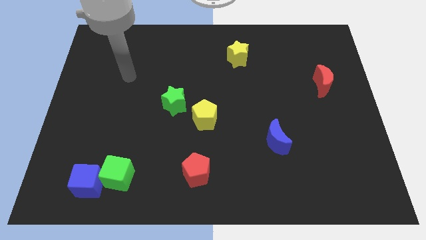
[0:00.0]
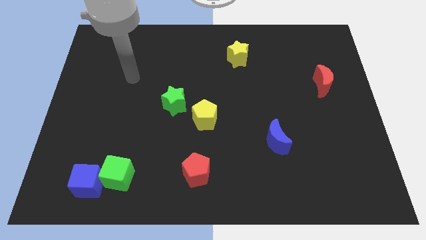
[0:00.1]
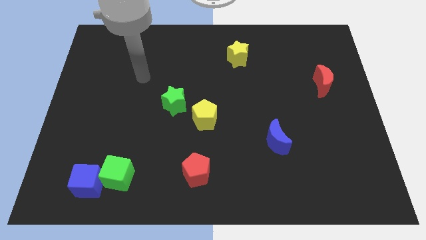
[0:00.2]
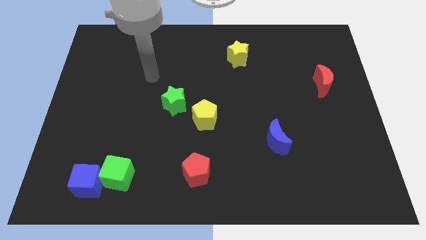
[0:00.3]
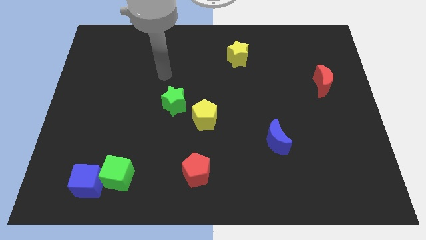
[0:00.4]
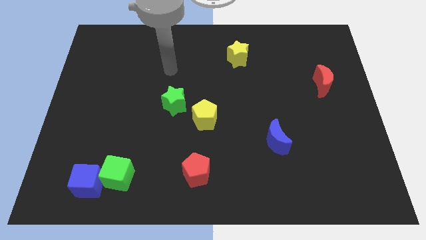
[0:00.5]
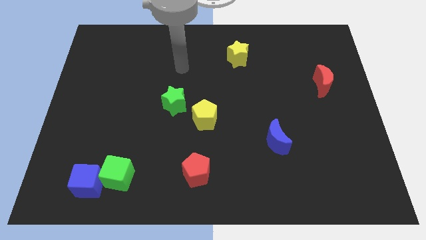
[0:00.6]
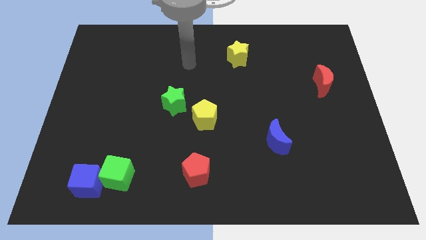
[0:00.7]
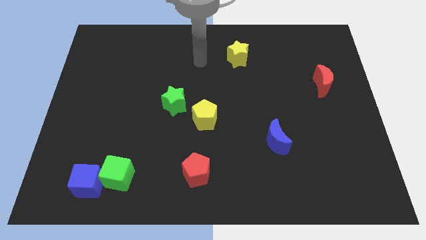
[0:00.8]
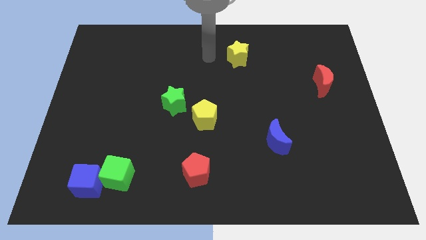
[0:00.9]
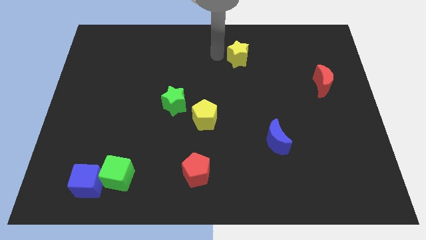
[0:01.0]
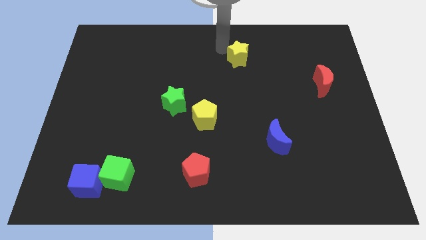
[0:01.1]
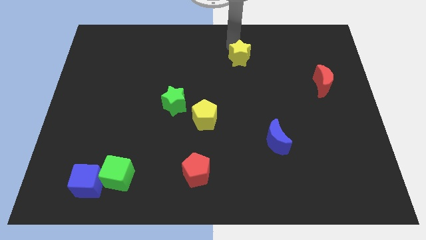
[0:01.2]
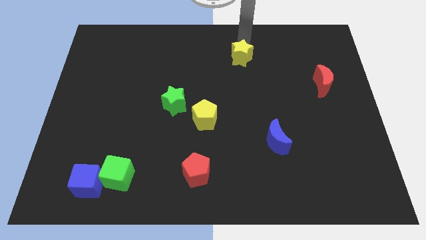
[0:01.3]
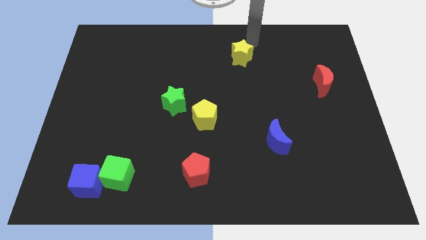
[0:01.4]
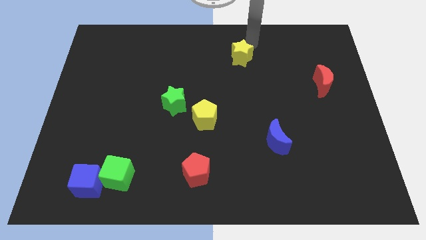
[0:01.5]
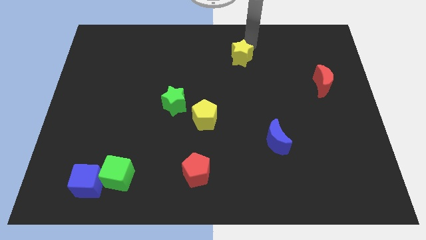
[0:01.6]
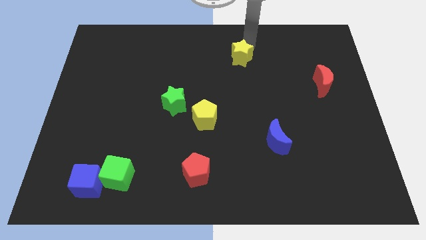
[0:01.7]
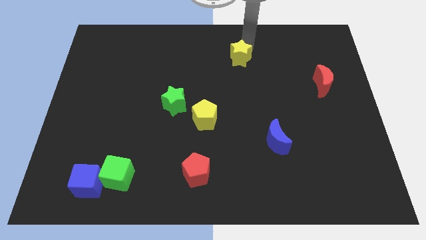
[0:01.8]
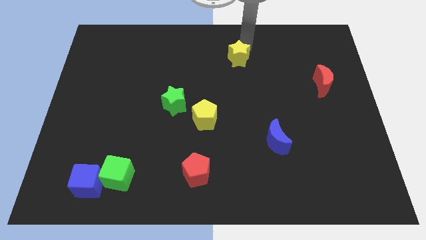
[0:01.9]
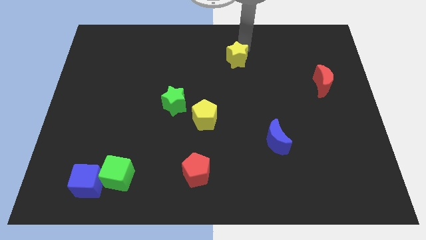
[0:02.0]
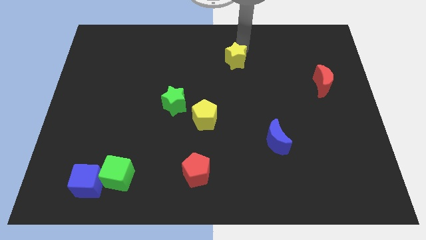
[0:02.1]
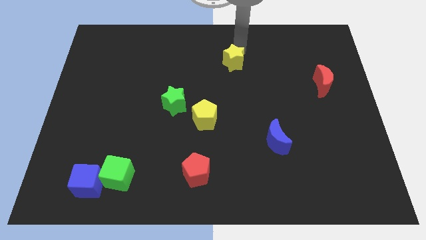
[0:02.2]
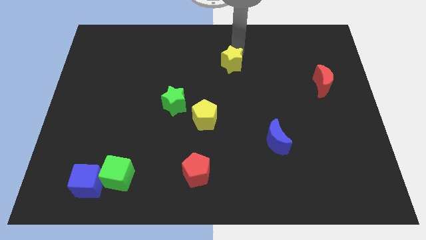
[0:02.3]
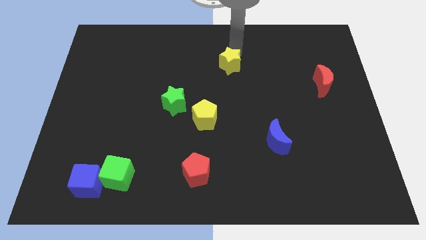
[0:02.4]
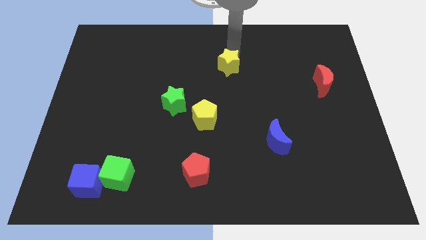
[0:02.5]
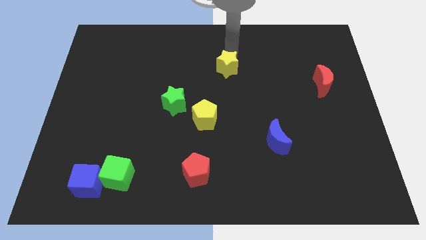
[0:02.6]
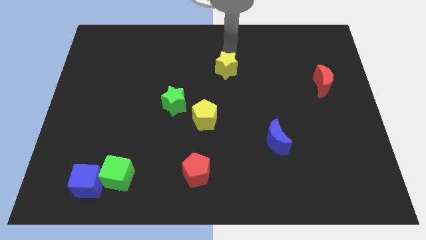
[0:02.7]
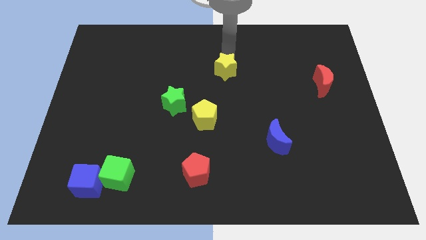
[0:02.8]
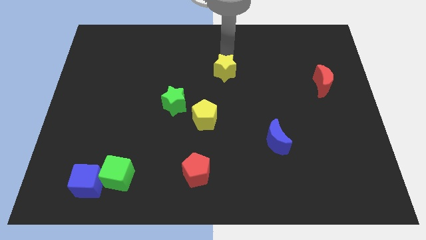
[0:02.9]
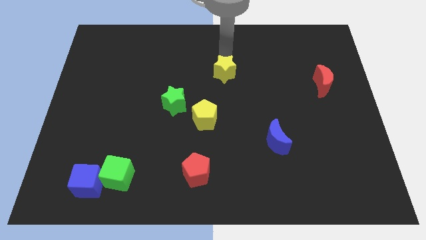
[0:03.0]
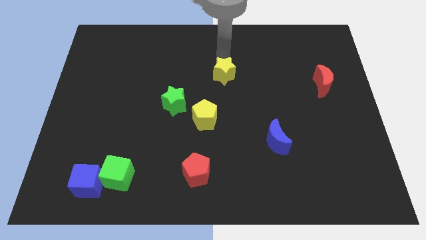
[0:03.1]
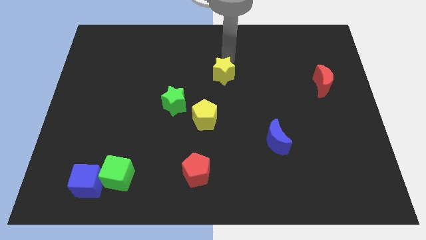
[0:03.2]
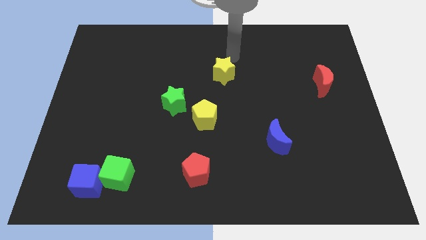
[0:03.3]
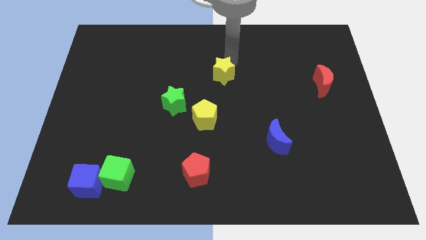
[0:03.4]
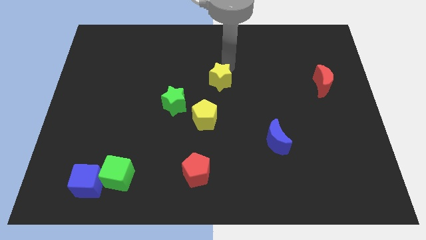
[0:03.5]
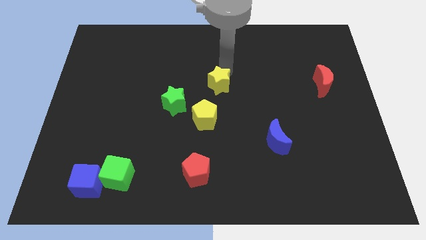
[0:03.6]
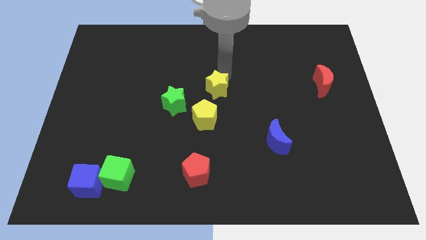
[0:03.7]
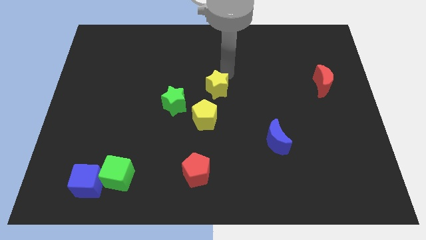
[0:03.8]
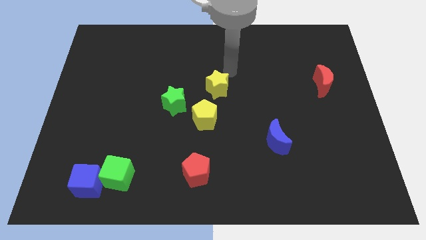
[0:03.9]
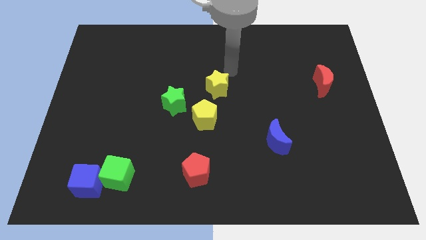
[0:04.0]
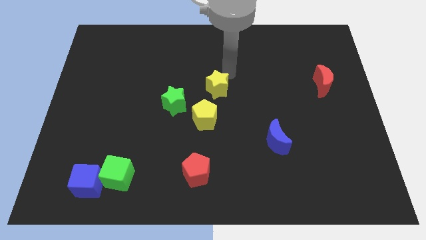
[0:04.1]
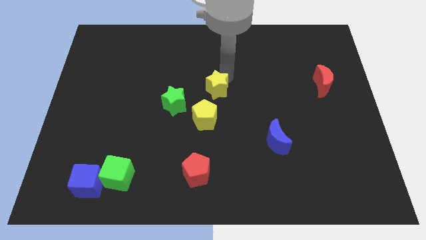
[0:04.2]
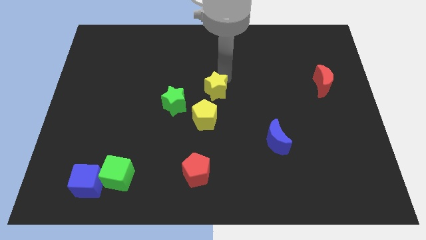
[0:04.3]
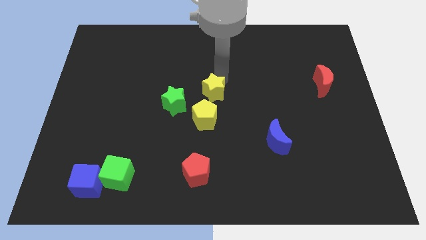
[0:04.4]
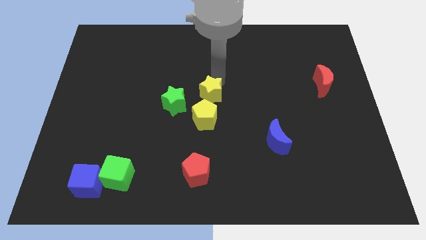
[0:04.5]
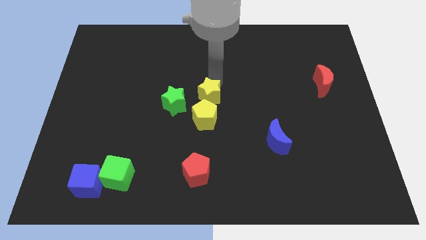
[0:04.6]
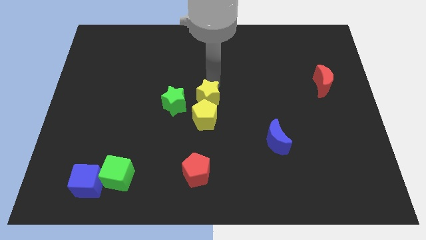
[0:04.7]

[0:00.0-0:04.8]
push the yellow star towards the yellow pentagon

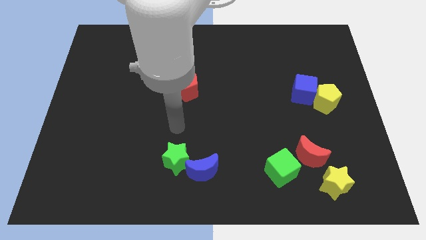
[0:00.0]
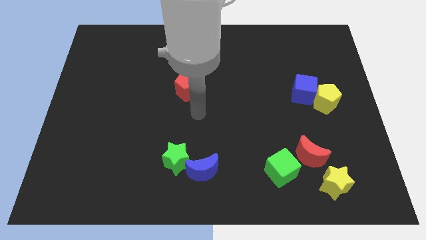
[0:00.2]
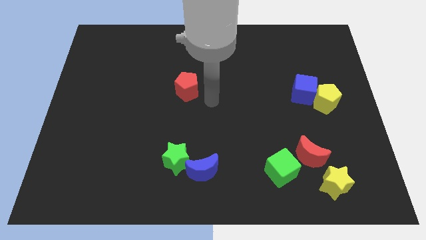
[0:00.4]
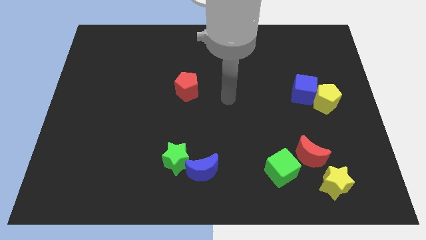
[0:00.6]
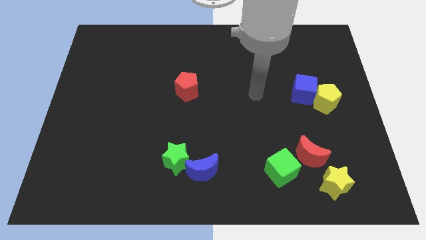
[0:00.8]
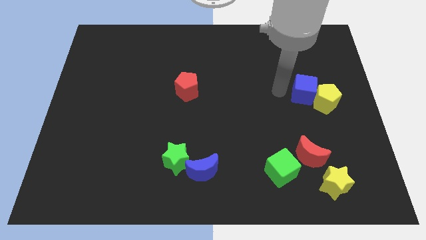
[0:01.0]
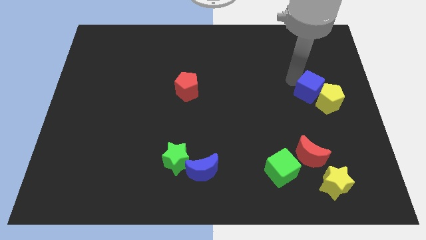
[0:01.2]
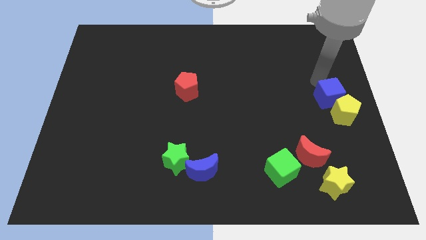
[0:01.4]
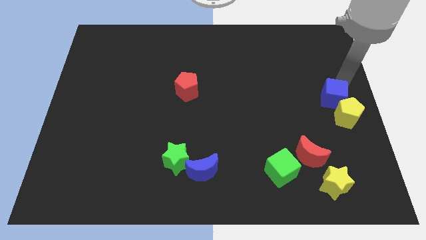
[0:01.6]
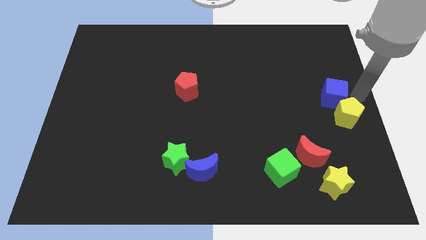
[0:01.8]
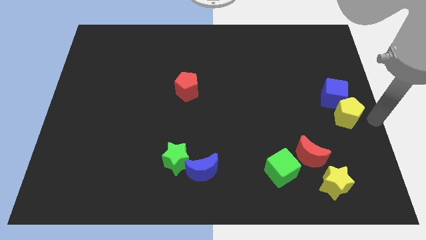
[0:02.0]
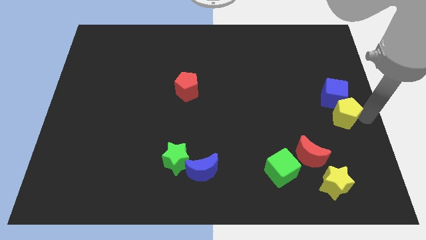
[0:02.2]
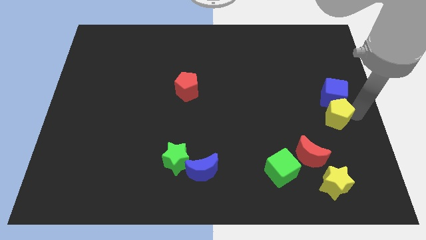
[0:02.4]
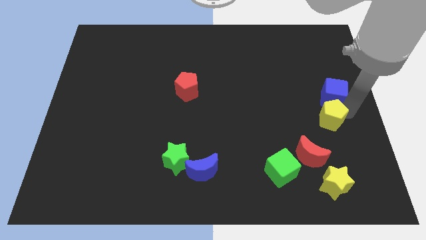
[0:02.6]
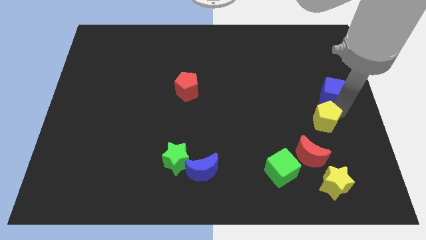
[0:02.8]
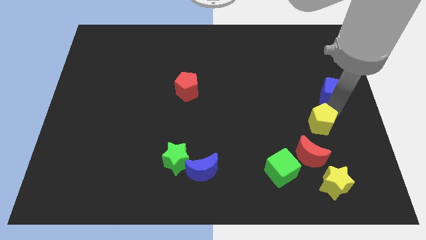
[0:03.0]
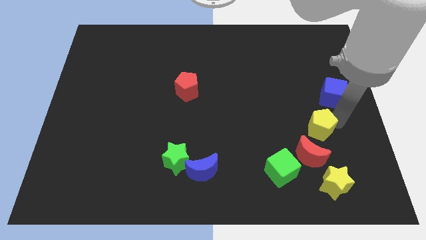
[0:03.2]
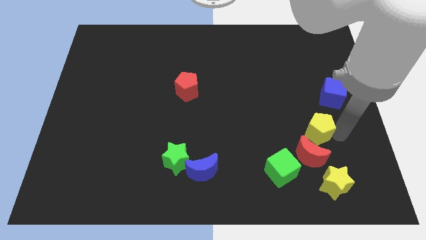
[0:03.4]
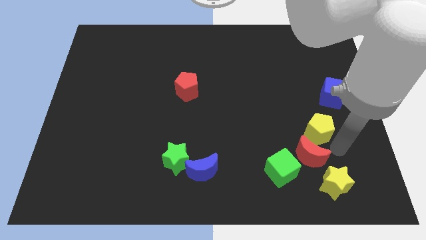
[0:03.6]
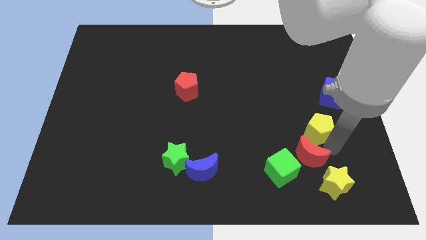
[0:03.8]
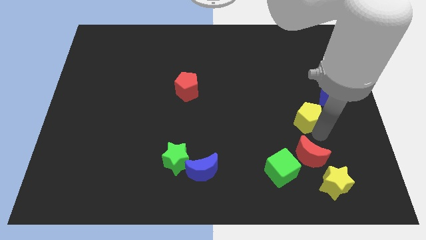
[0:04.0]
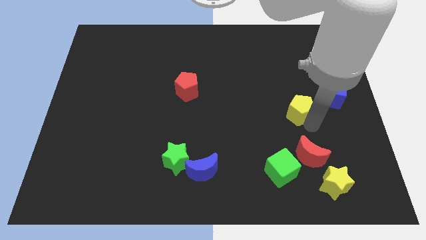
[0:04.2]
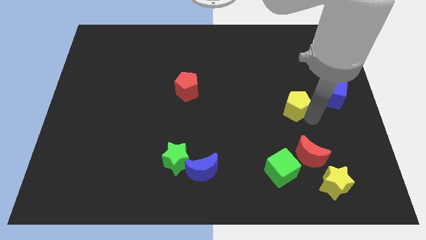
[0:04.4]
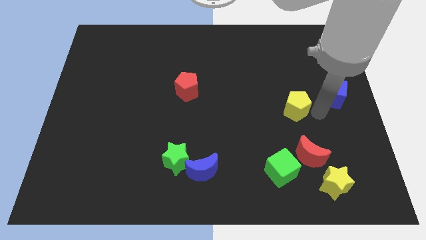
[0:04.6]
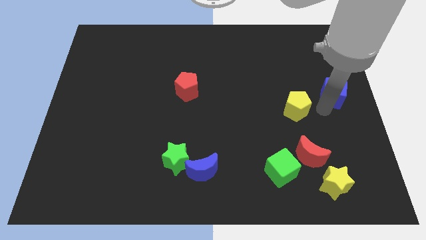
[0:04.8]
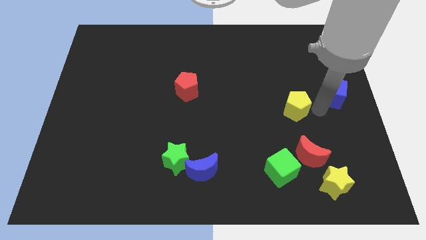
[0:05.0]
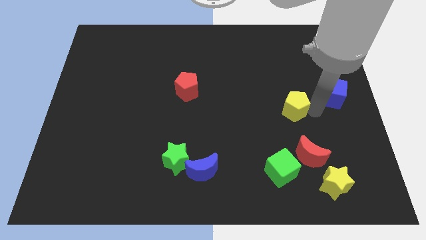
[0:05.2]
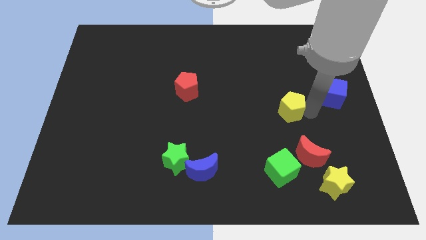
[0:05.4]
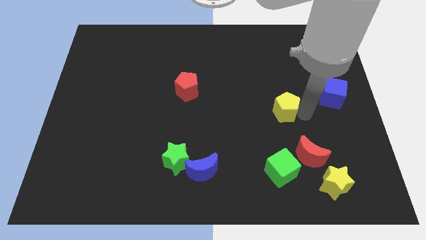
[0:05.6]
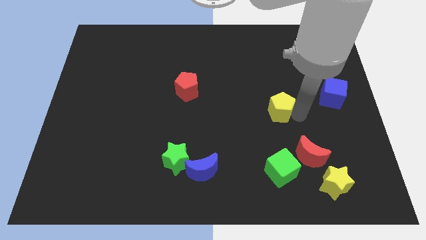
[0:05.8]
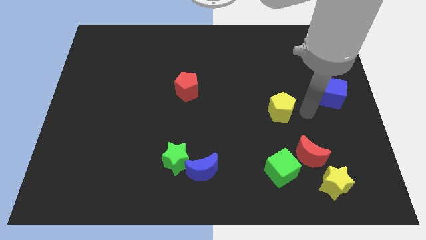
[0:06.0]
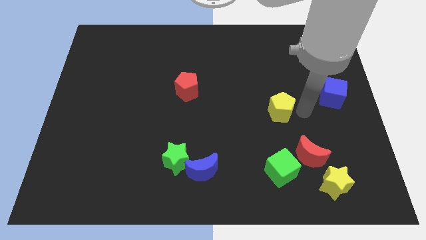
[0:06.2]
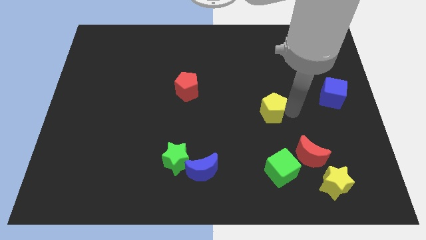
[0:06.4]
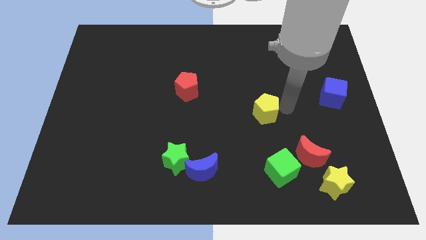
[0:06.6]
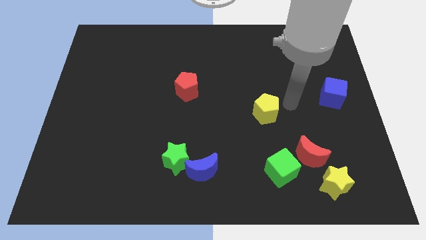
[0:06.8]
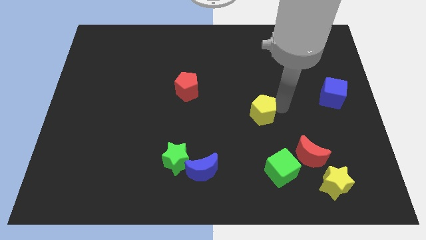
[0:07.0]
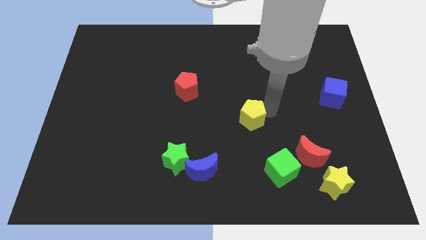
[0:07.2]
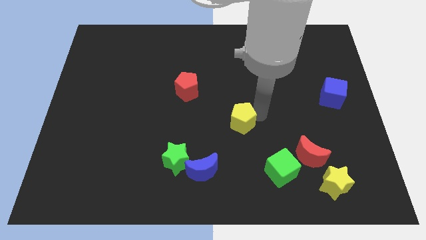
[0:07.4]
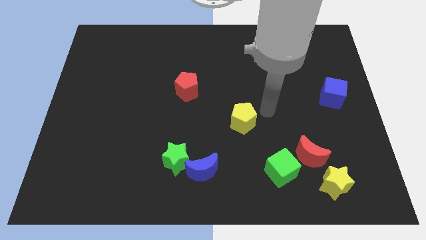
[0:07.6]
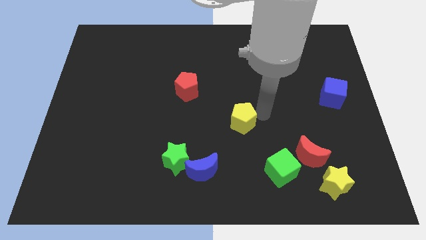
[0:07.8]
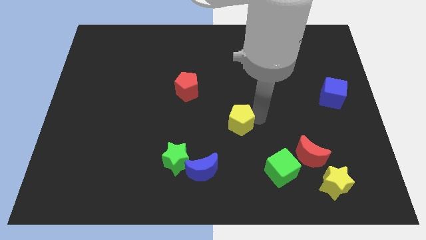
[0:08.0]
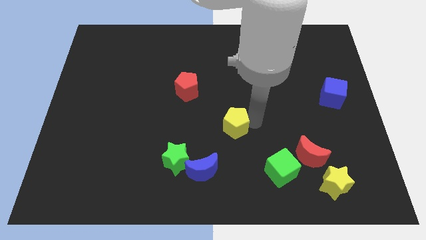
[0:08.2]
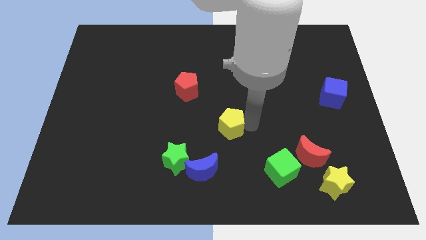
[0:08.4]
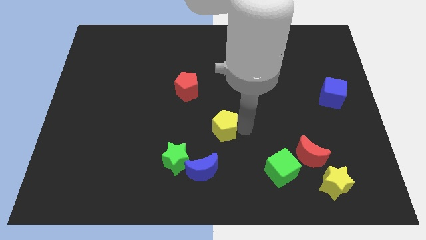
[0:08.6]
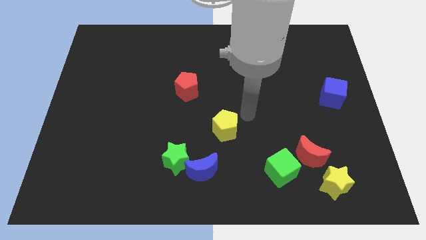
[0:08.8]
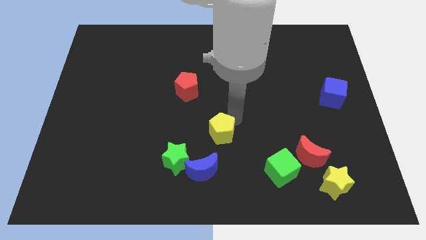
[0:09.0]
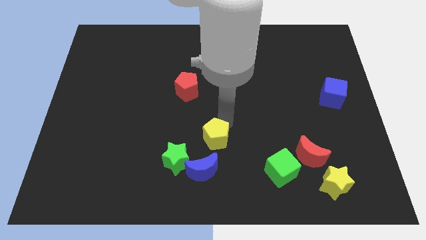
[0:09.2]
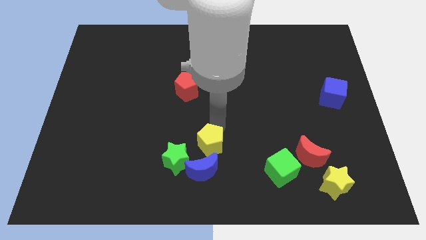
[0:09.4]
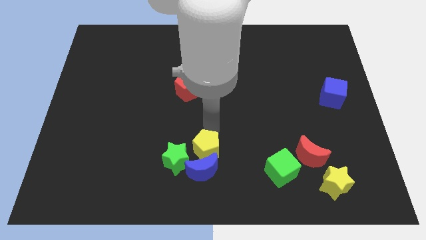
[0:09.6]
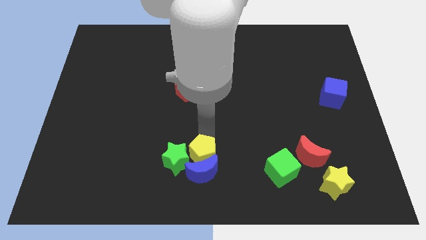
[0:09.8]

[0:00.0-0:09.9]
push the yellow pentagon towards the green star
